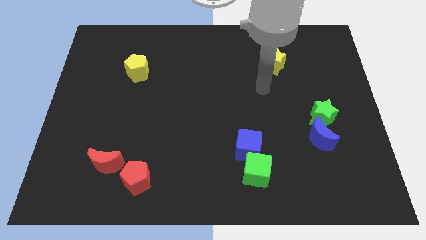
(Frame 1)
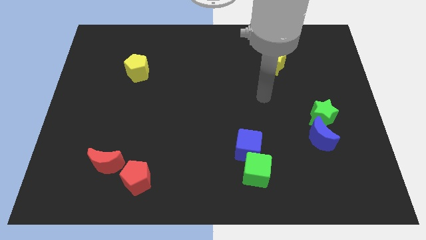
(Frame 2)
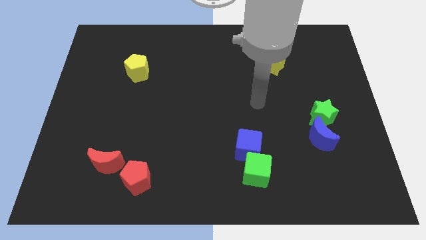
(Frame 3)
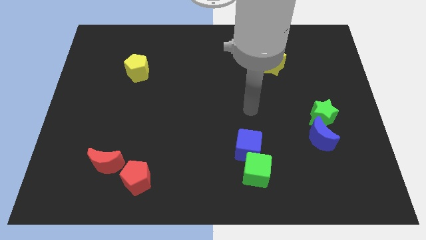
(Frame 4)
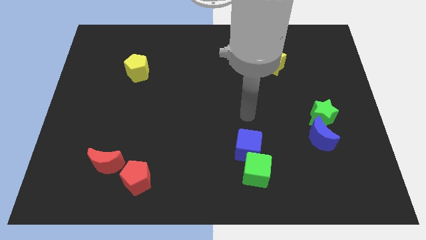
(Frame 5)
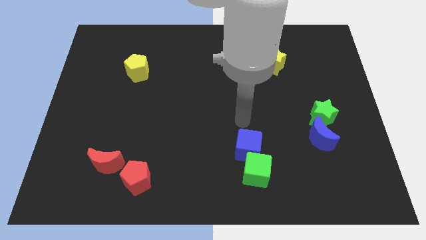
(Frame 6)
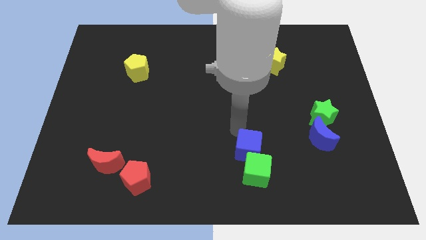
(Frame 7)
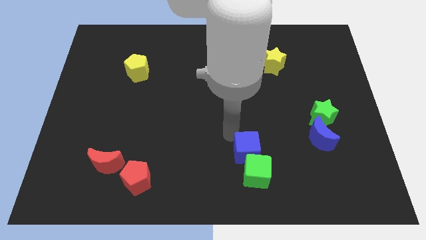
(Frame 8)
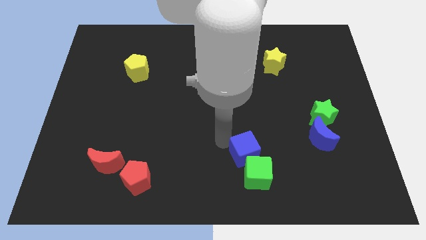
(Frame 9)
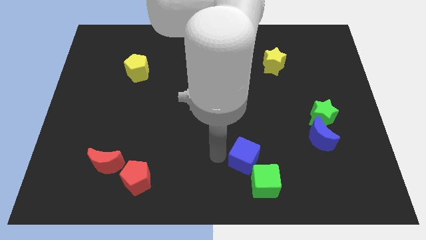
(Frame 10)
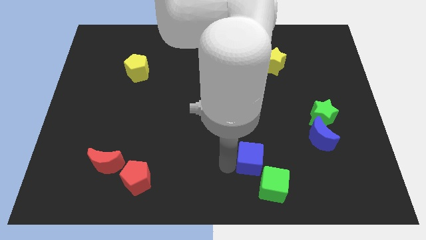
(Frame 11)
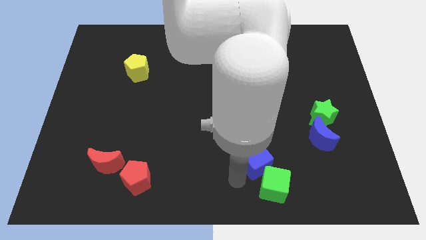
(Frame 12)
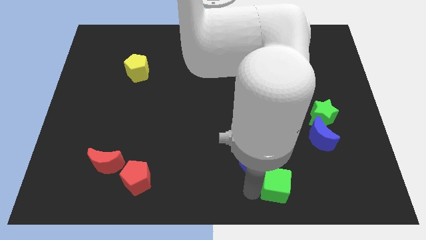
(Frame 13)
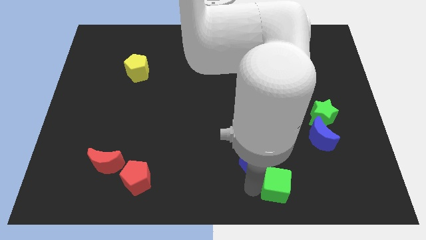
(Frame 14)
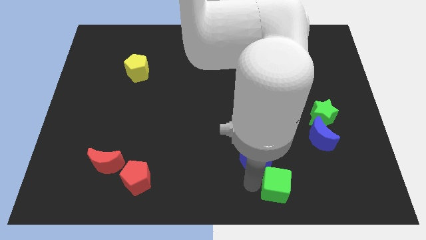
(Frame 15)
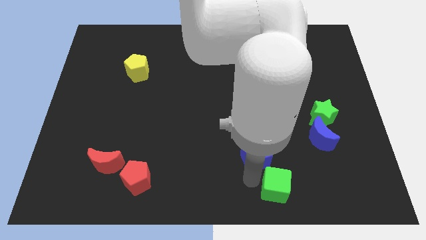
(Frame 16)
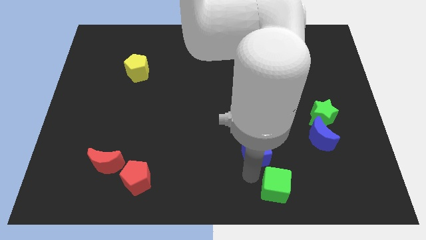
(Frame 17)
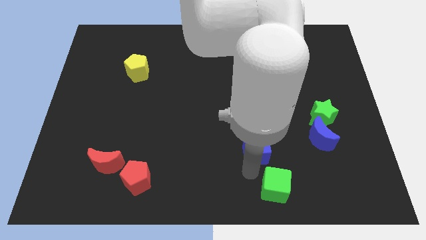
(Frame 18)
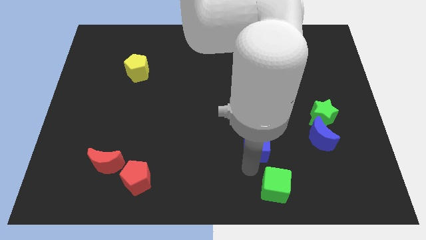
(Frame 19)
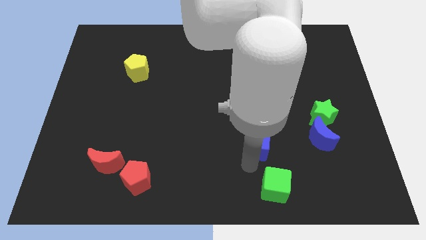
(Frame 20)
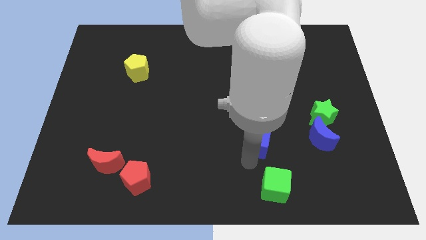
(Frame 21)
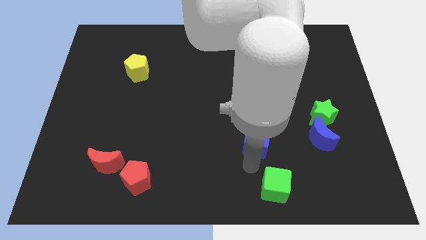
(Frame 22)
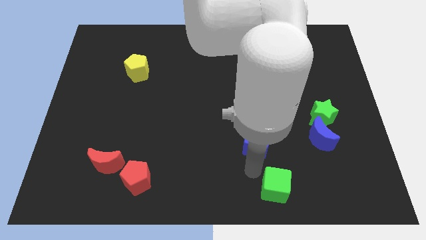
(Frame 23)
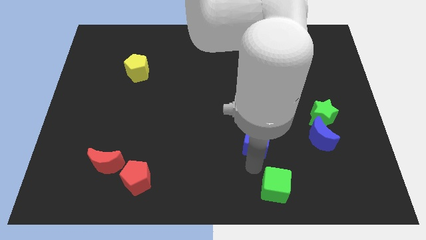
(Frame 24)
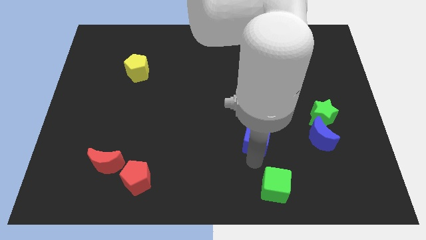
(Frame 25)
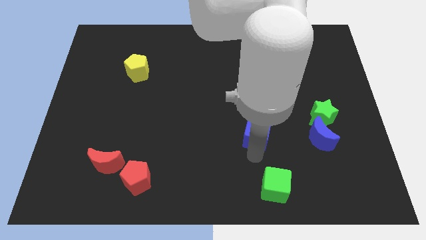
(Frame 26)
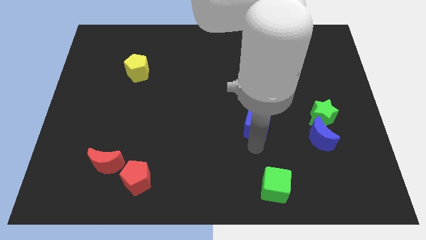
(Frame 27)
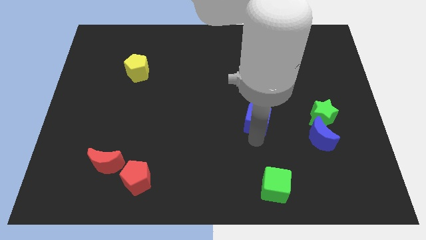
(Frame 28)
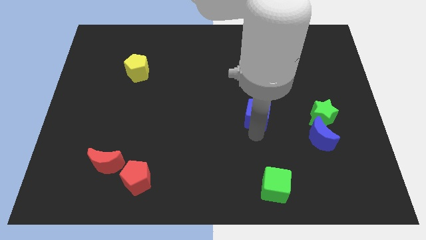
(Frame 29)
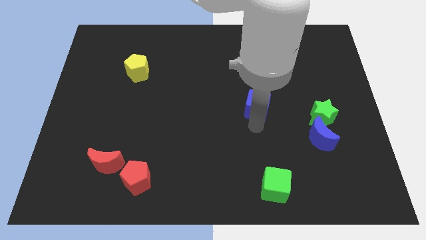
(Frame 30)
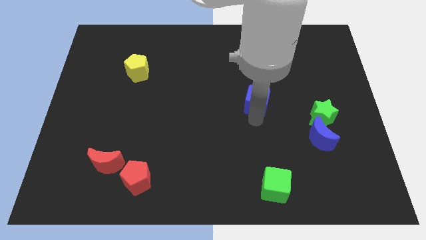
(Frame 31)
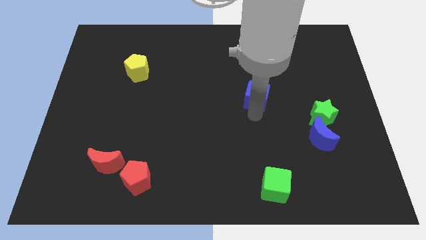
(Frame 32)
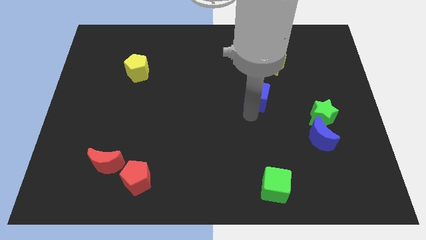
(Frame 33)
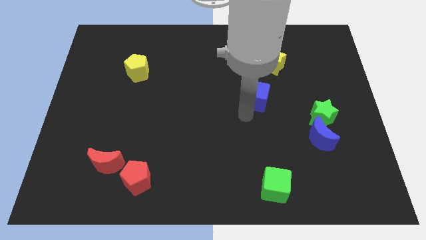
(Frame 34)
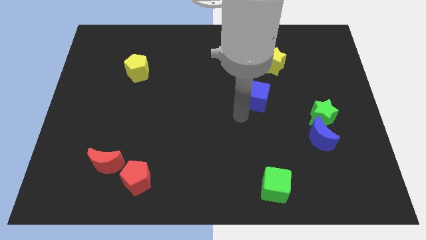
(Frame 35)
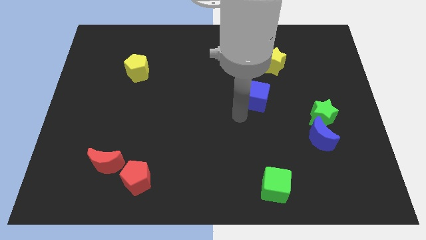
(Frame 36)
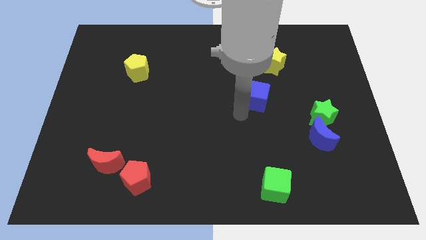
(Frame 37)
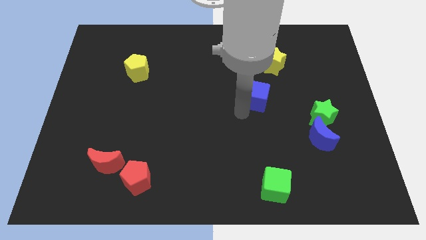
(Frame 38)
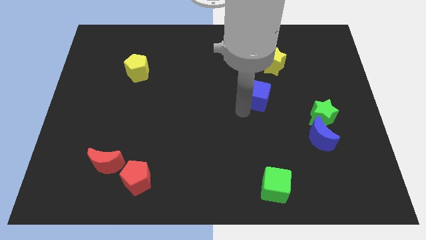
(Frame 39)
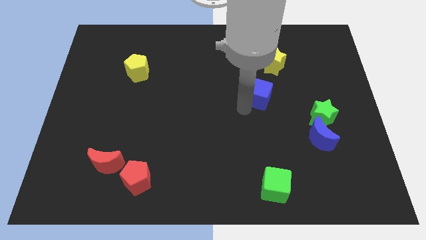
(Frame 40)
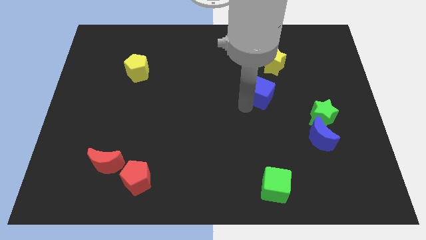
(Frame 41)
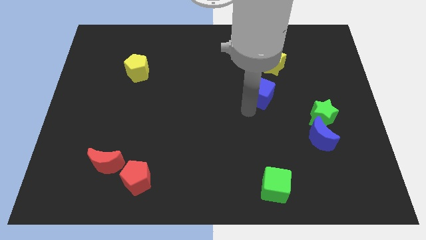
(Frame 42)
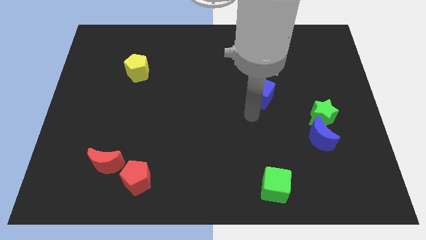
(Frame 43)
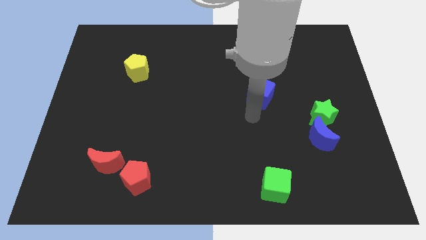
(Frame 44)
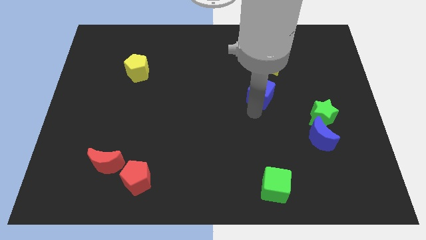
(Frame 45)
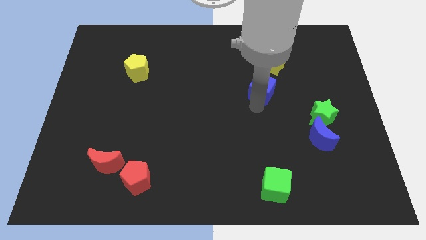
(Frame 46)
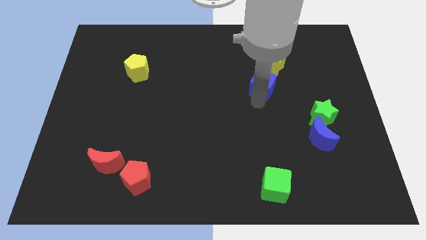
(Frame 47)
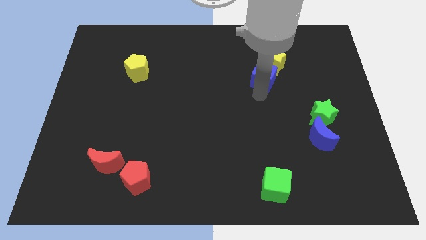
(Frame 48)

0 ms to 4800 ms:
put the blue cube to the yellow star

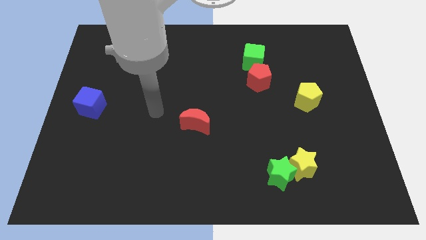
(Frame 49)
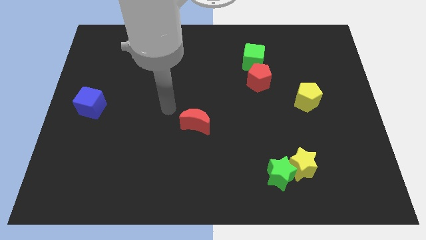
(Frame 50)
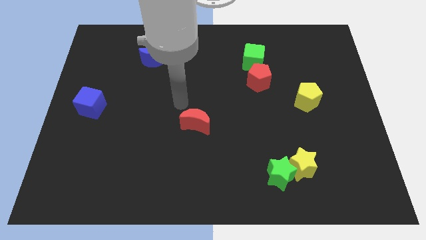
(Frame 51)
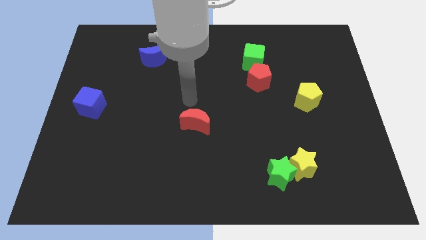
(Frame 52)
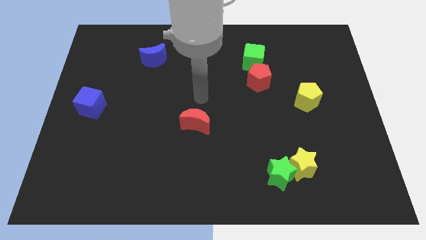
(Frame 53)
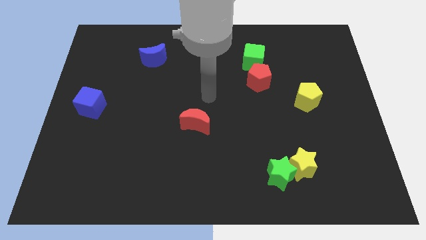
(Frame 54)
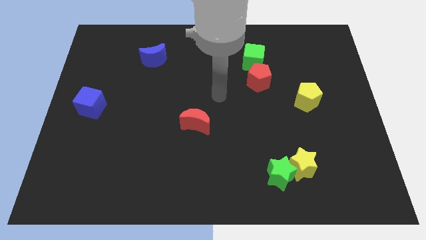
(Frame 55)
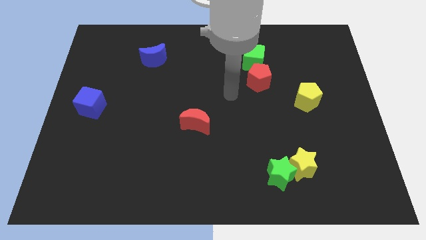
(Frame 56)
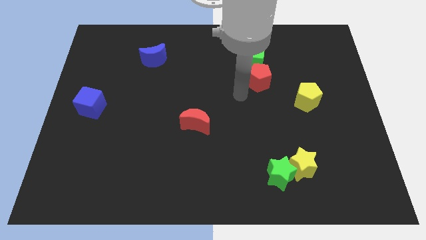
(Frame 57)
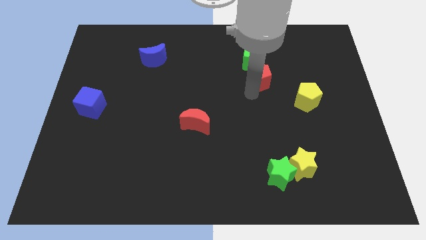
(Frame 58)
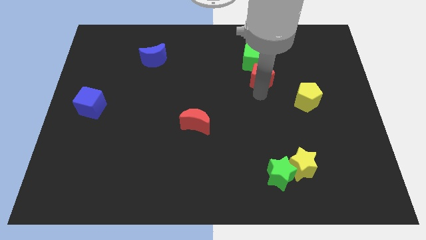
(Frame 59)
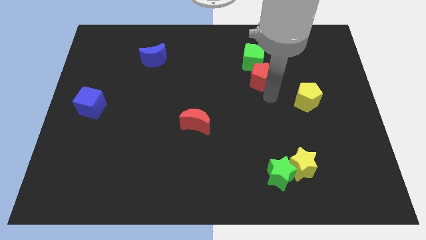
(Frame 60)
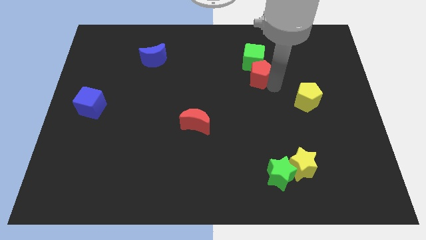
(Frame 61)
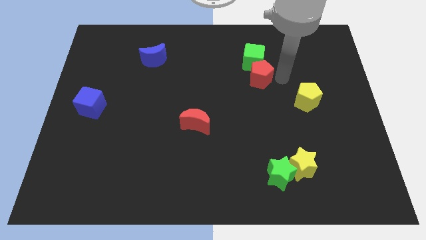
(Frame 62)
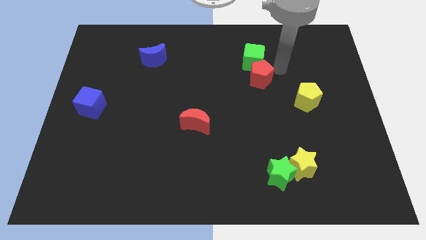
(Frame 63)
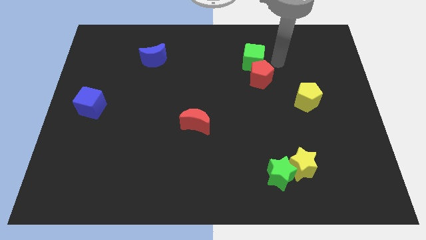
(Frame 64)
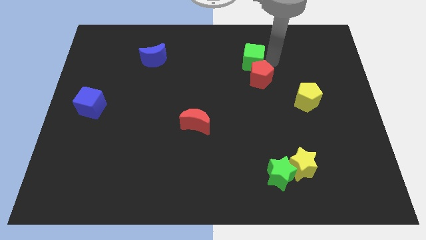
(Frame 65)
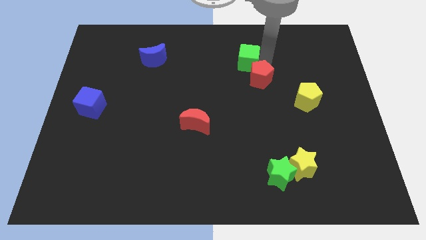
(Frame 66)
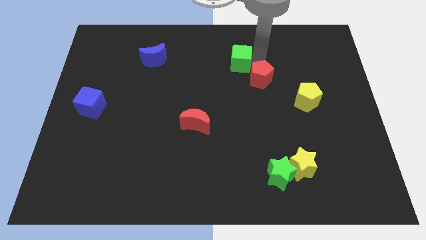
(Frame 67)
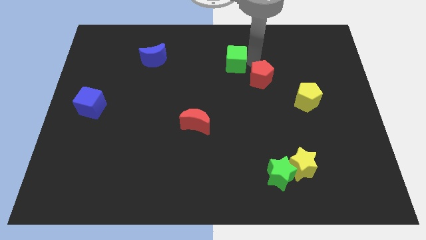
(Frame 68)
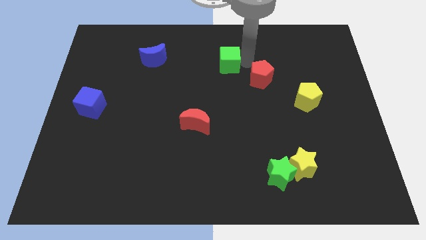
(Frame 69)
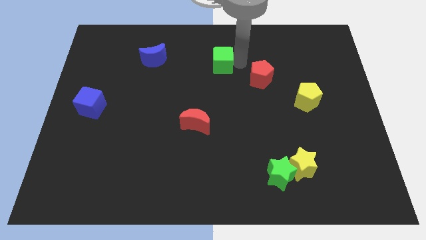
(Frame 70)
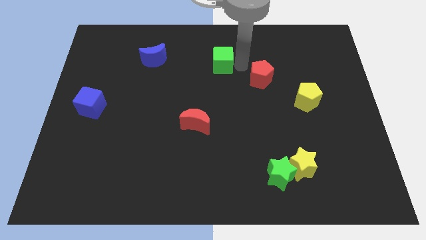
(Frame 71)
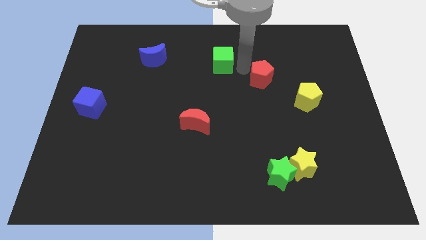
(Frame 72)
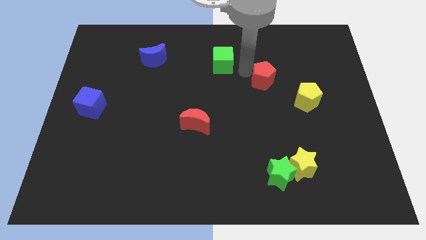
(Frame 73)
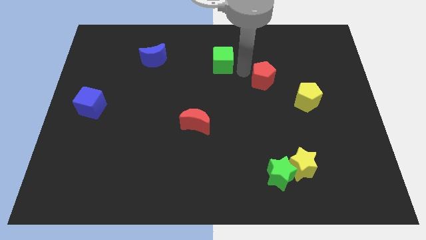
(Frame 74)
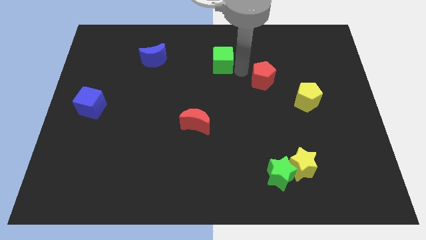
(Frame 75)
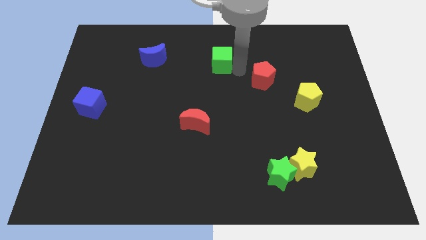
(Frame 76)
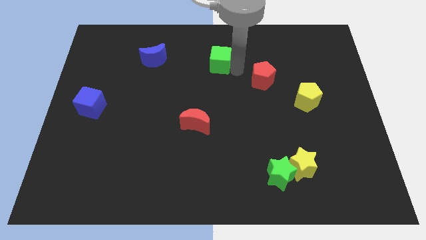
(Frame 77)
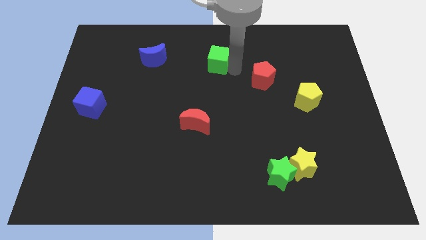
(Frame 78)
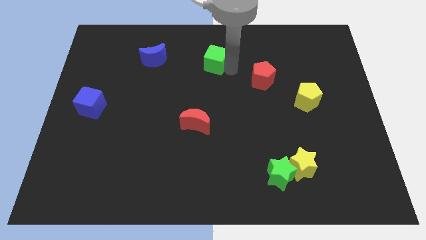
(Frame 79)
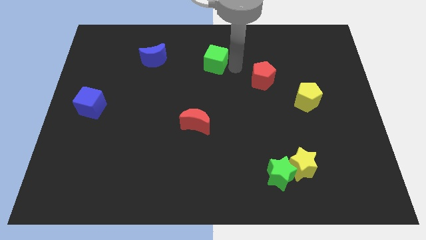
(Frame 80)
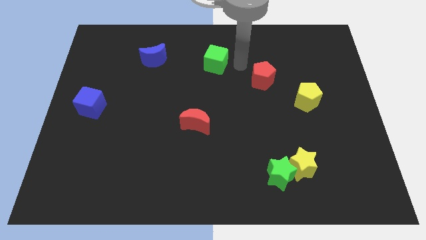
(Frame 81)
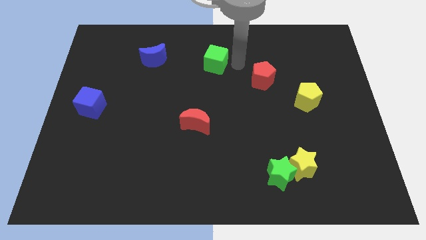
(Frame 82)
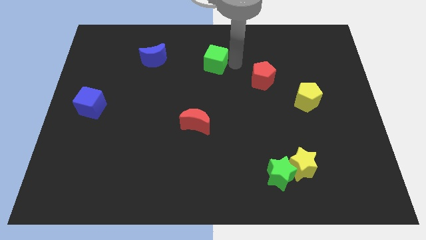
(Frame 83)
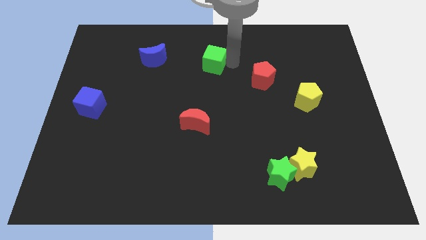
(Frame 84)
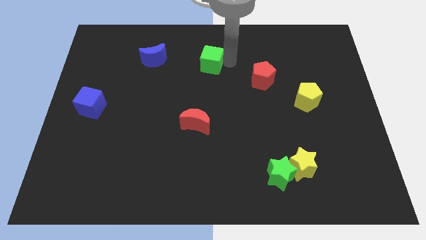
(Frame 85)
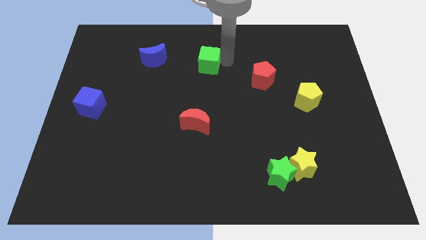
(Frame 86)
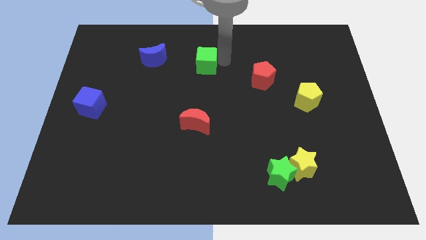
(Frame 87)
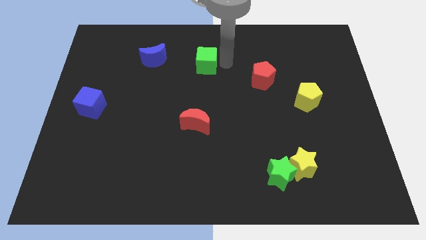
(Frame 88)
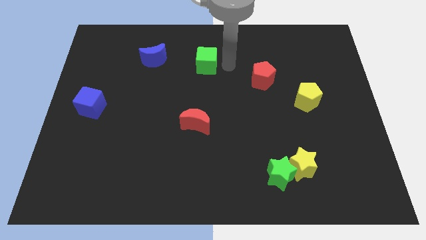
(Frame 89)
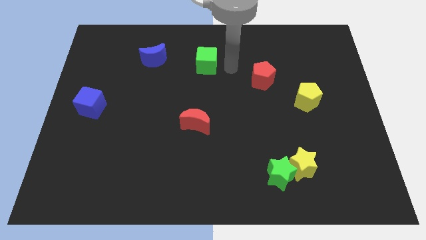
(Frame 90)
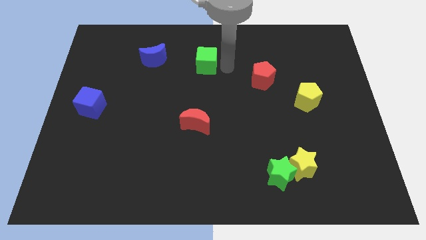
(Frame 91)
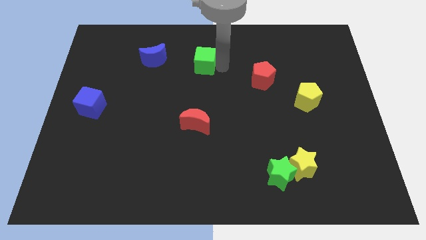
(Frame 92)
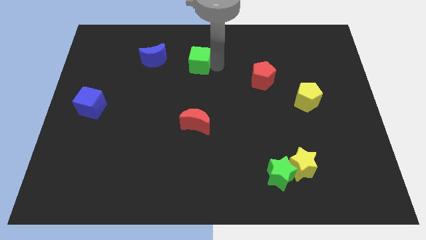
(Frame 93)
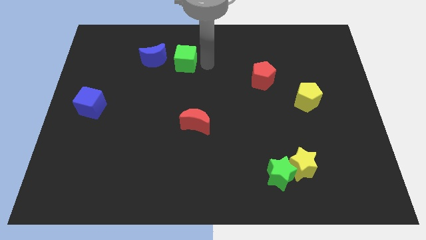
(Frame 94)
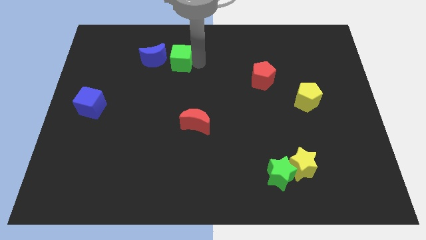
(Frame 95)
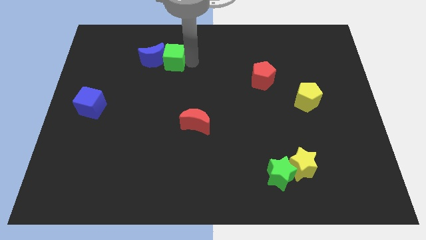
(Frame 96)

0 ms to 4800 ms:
push the green cube next to the blue moon
